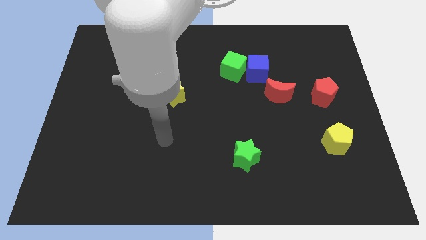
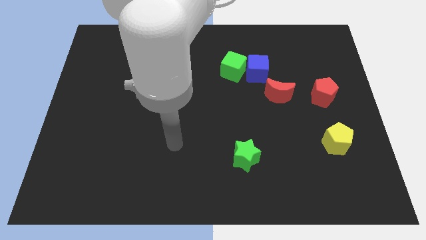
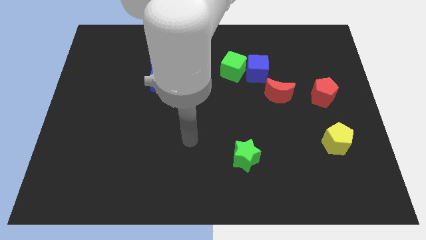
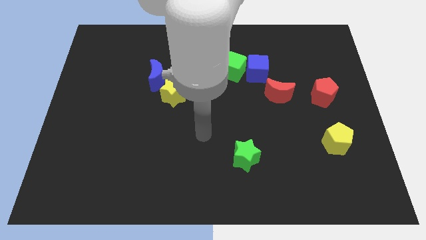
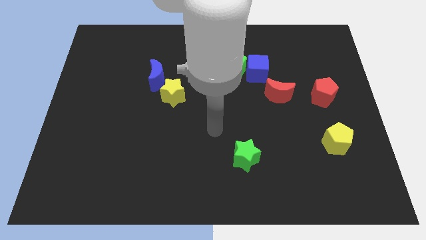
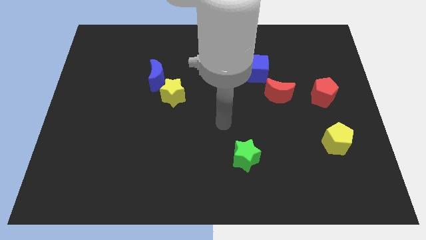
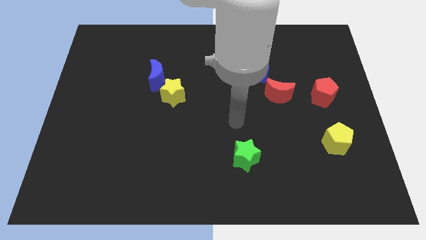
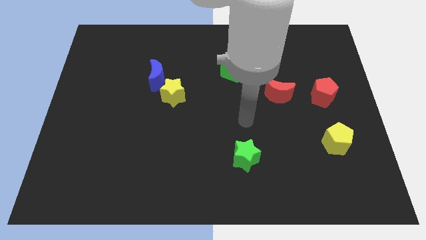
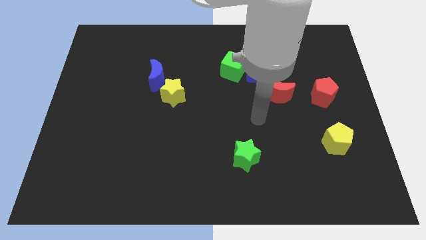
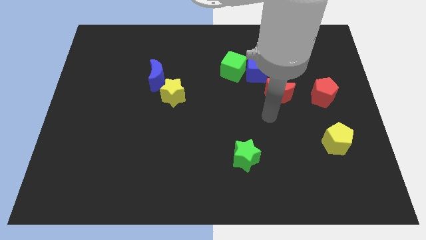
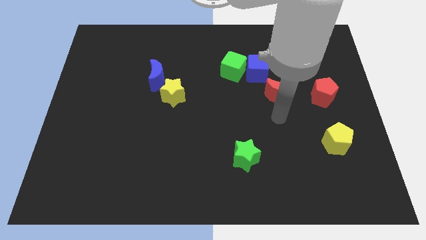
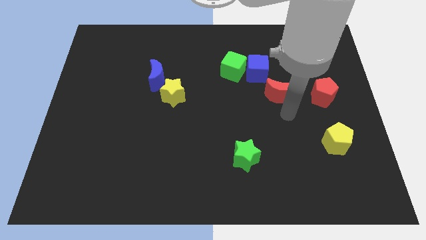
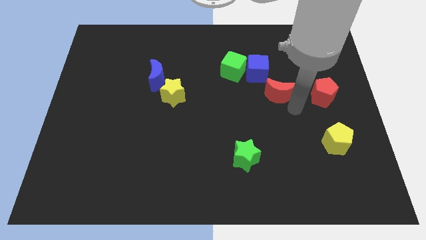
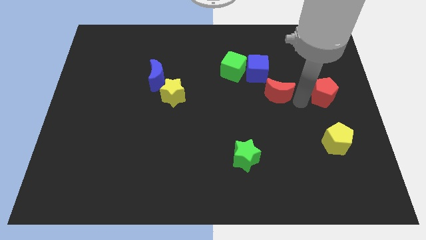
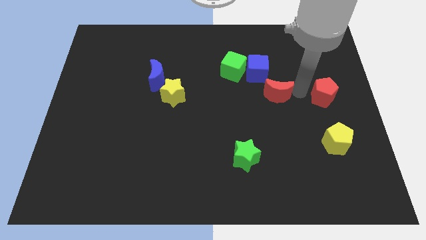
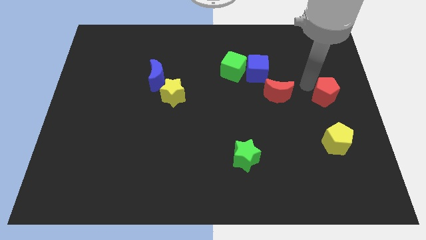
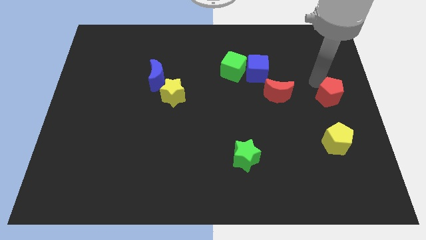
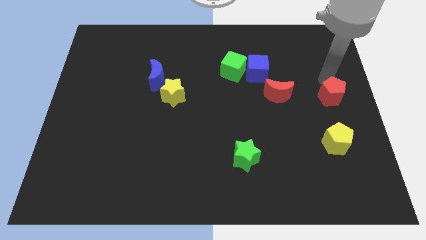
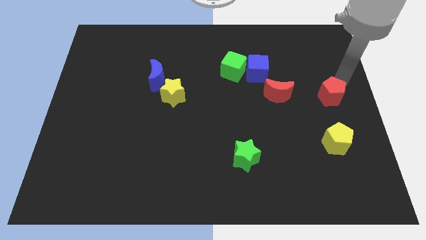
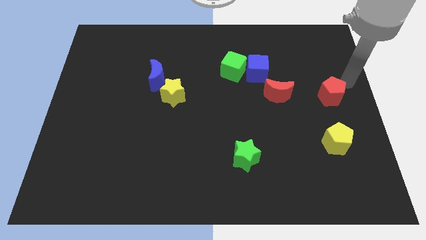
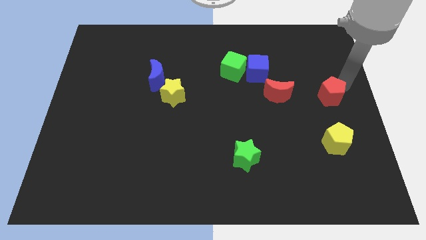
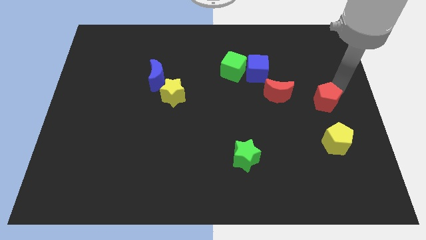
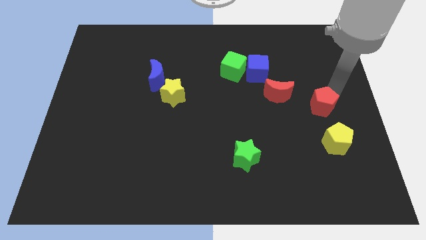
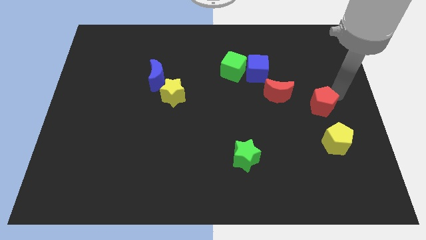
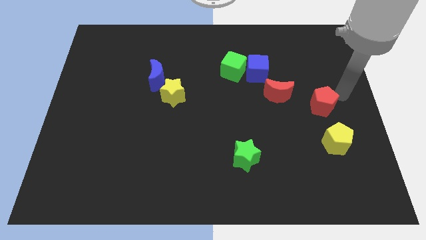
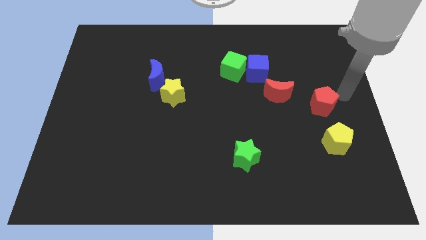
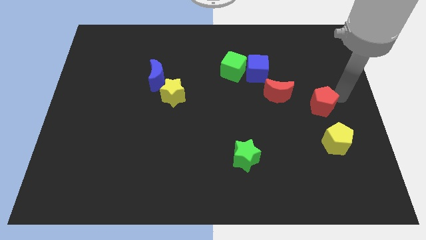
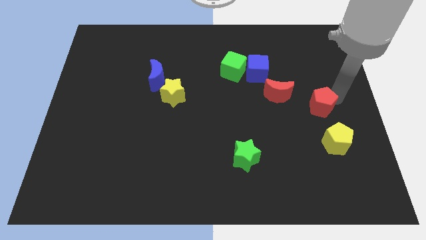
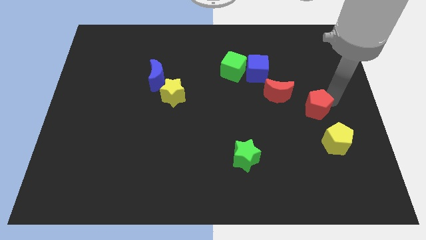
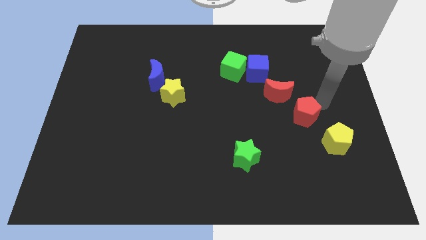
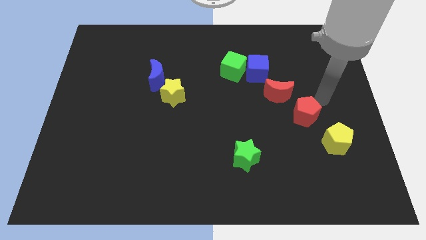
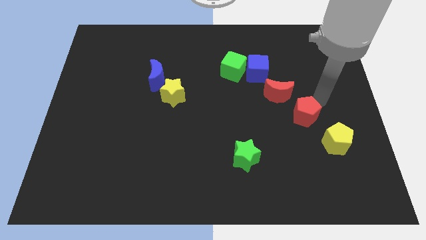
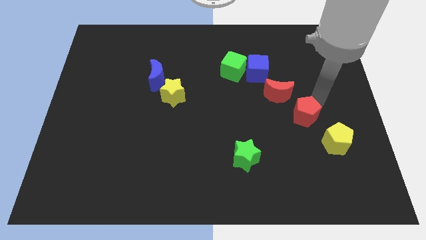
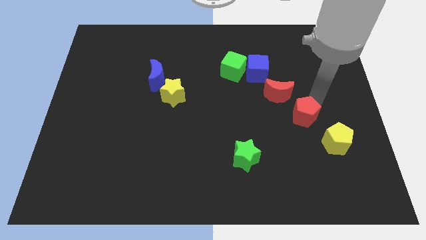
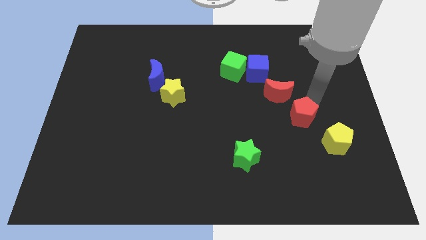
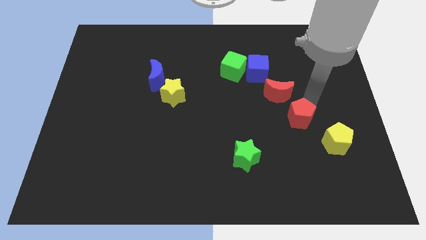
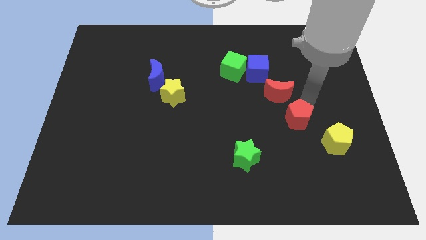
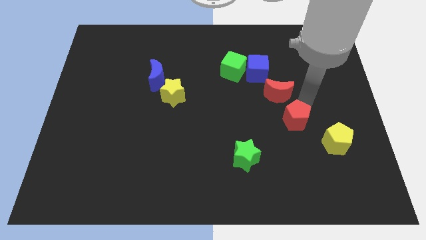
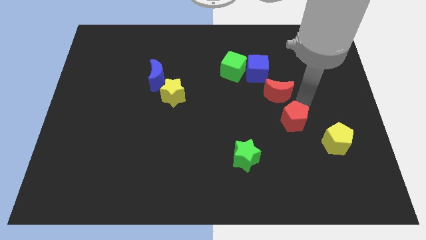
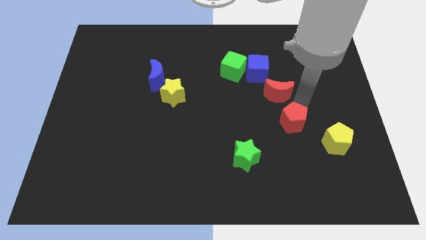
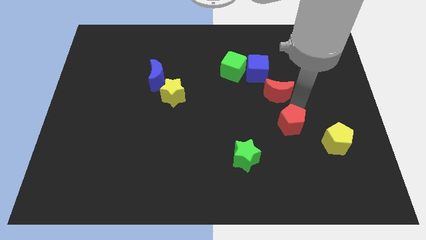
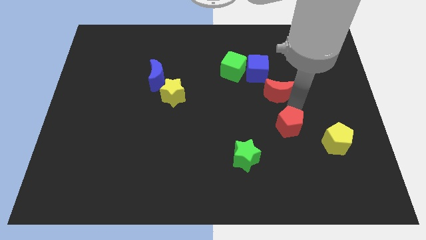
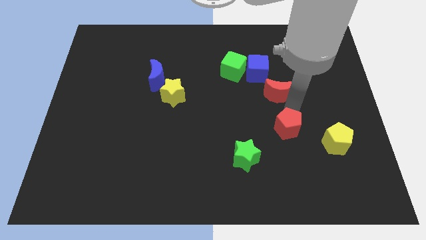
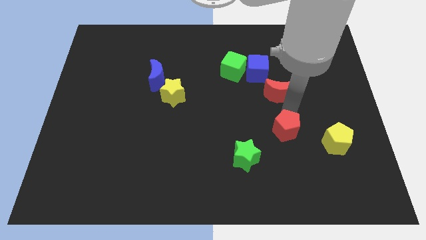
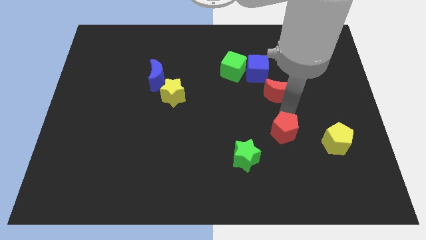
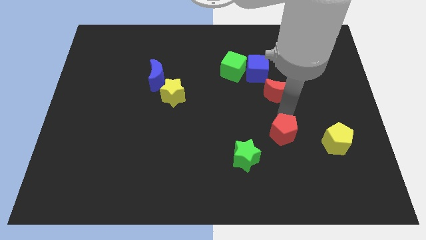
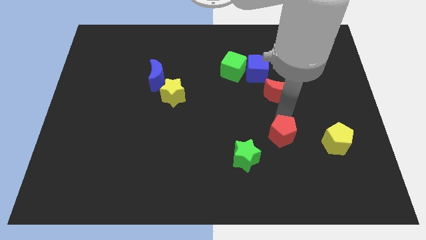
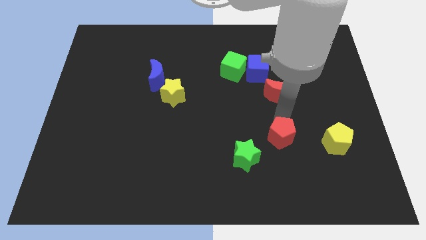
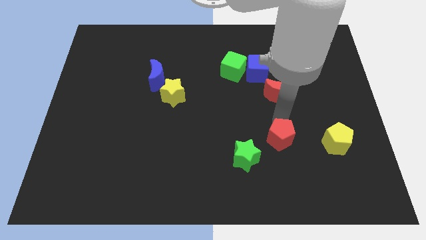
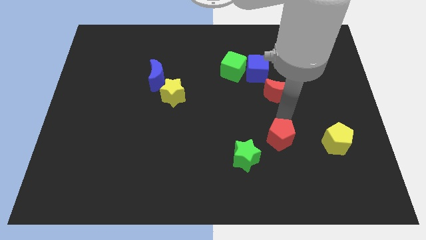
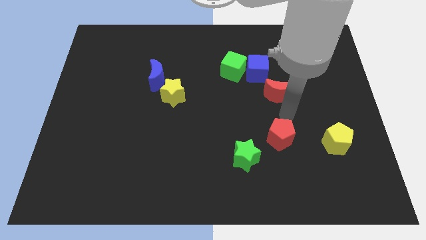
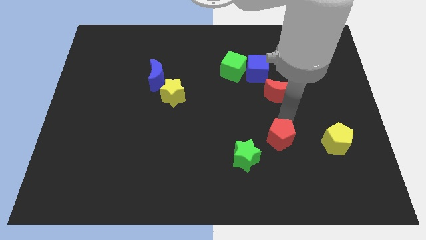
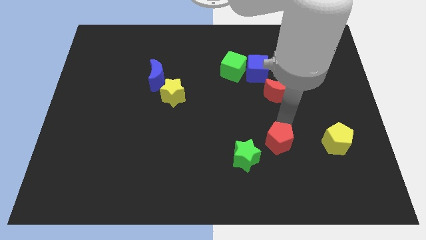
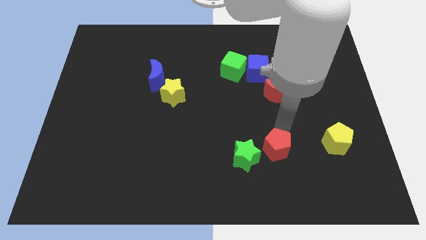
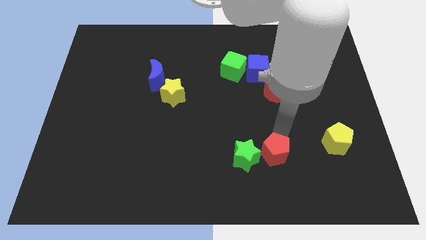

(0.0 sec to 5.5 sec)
slide the red pentagon diagonally down and left

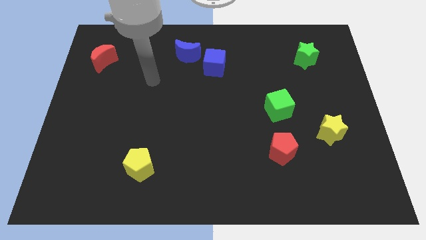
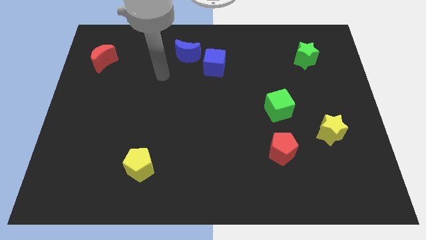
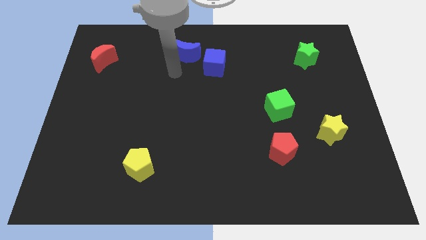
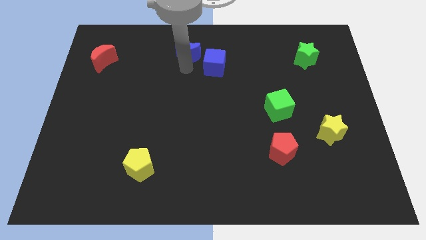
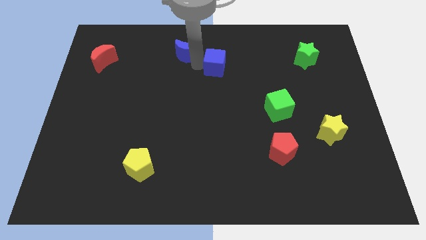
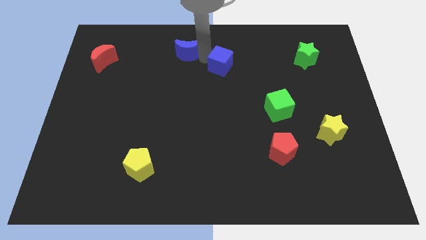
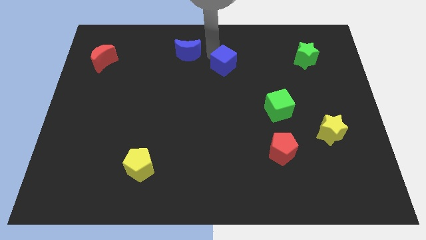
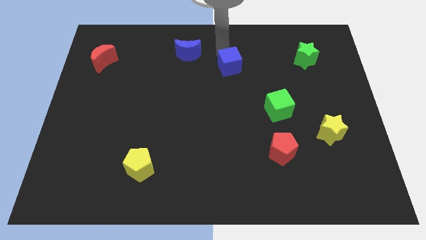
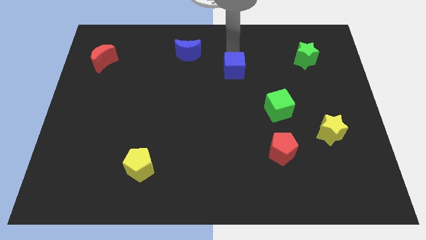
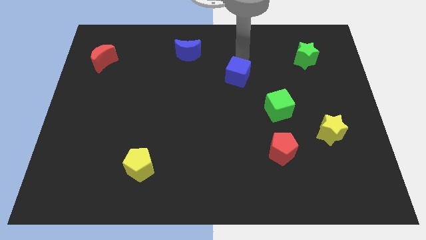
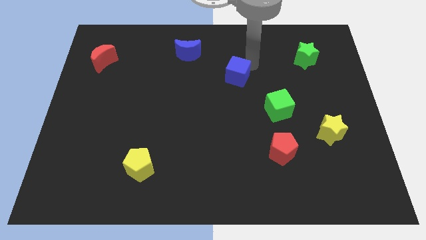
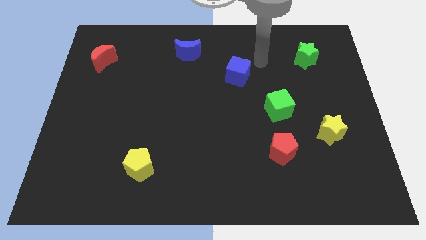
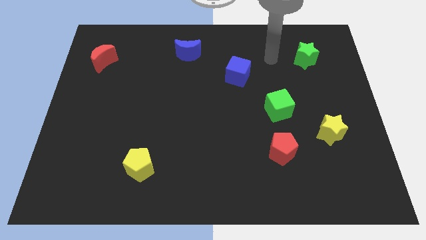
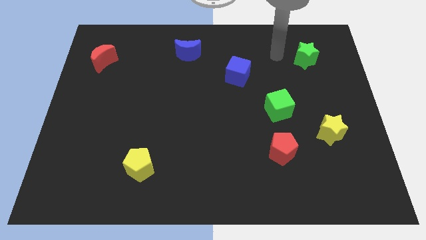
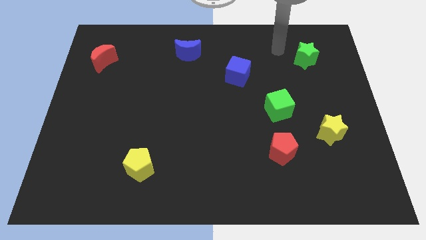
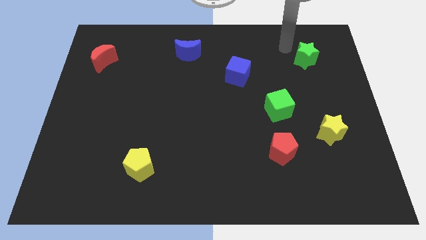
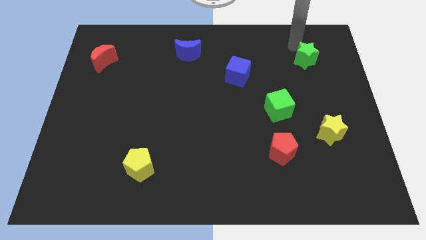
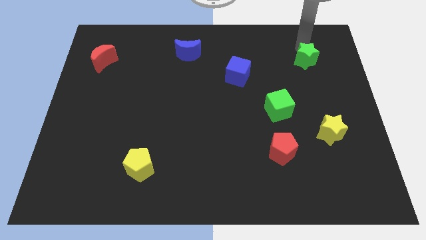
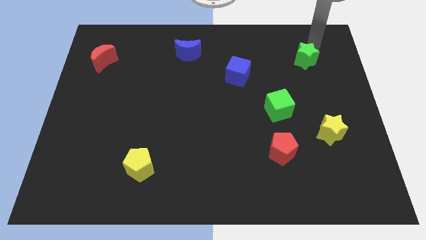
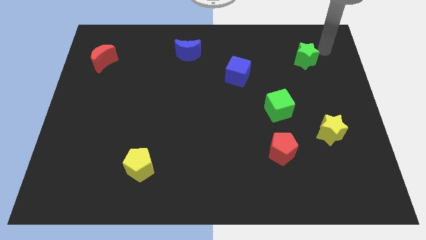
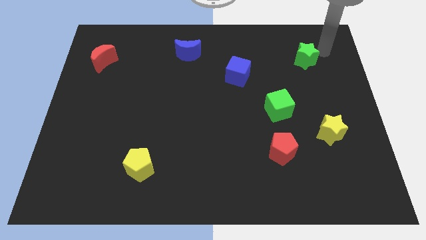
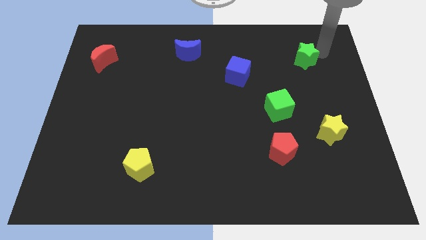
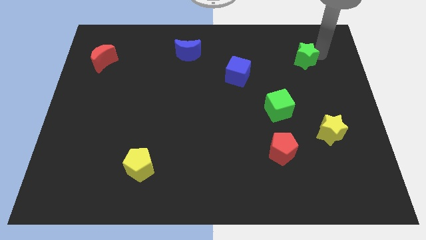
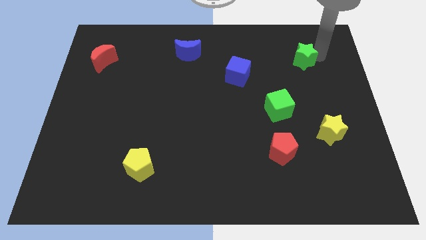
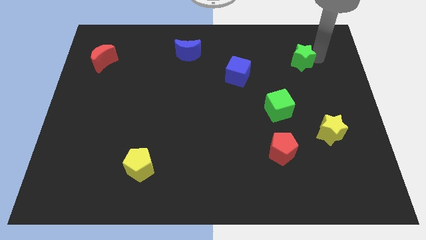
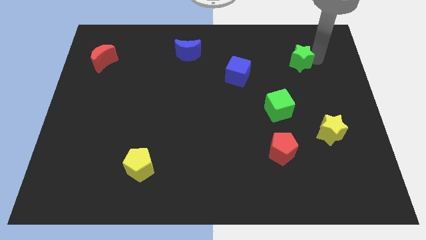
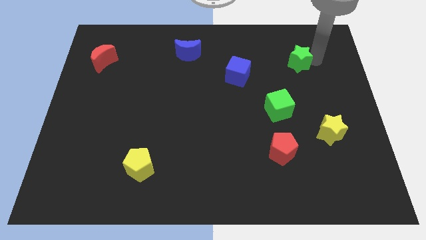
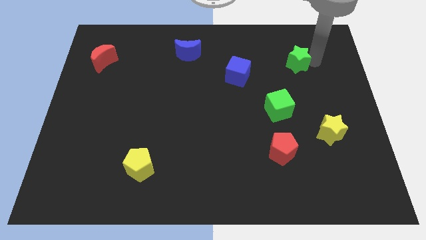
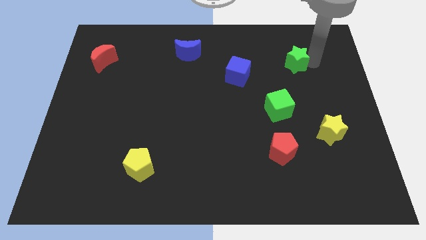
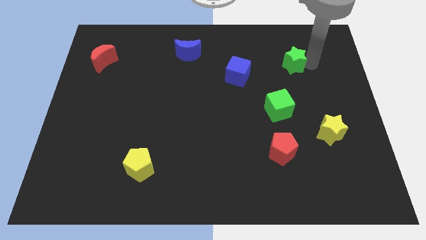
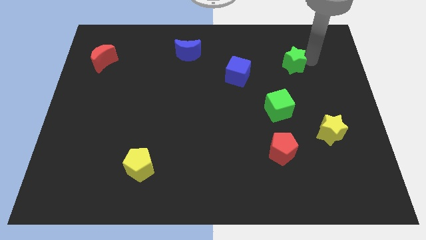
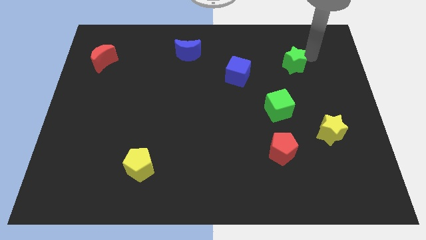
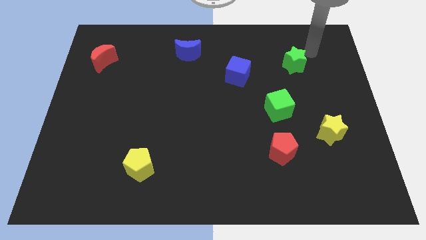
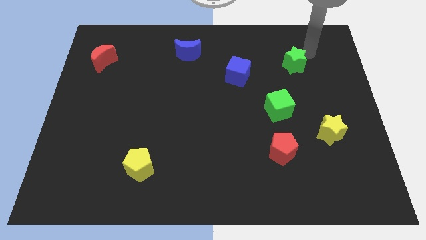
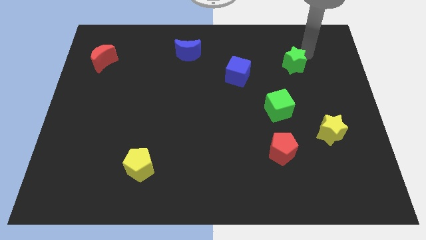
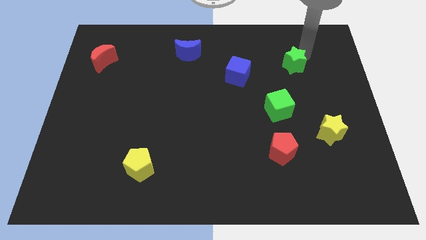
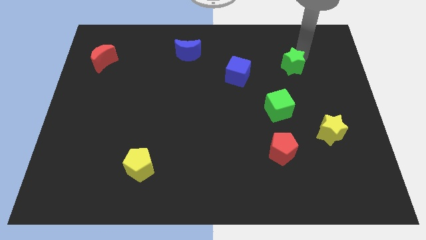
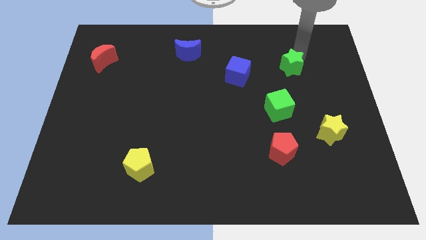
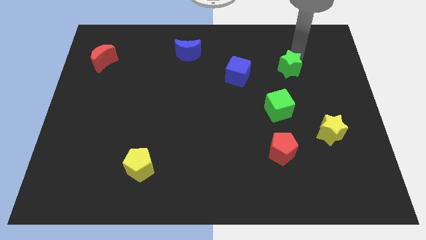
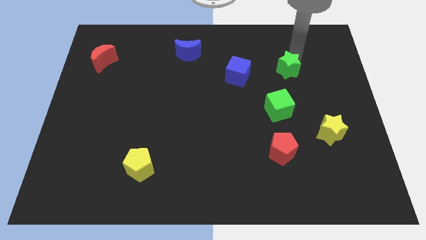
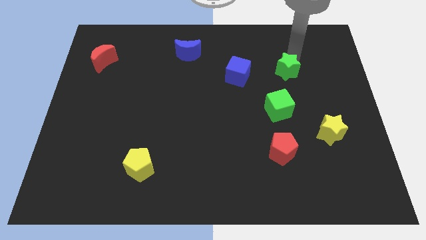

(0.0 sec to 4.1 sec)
slide the green star downwards and left a little
